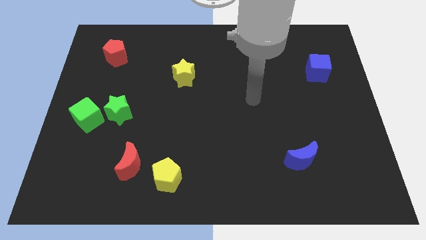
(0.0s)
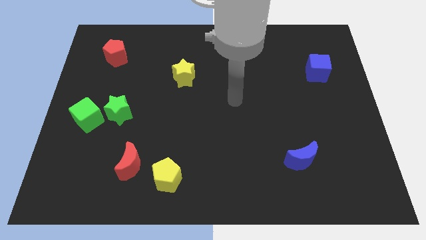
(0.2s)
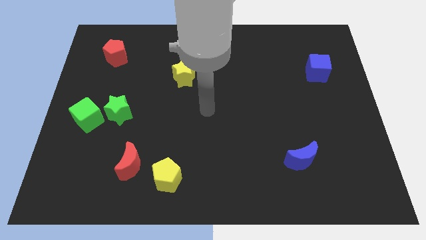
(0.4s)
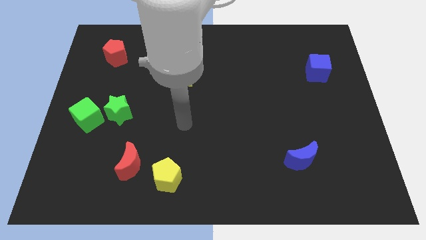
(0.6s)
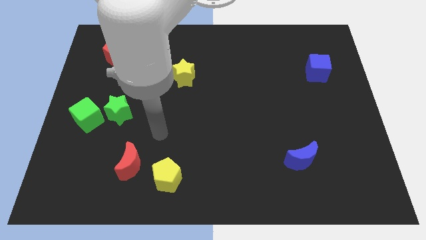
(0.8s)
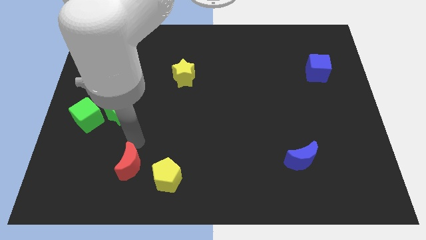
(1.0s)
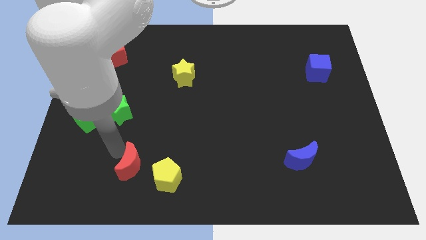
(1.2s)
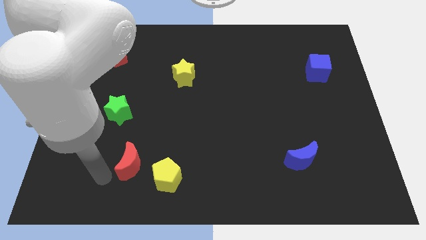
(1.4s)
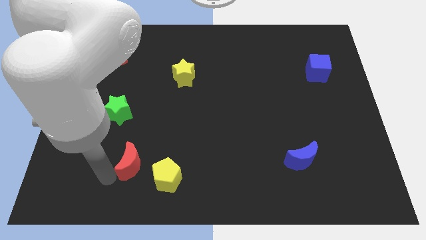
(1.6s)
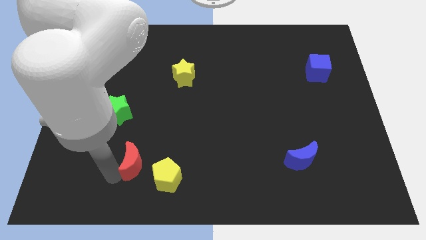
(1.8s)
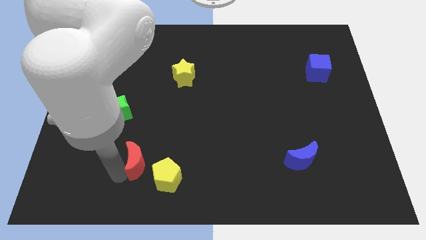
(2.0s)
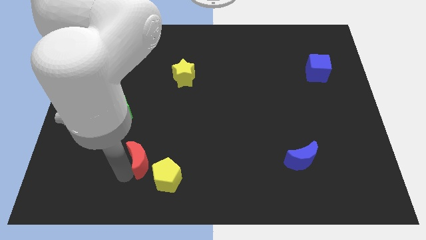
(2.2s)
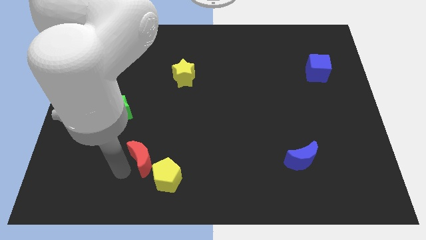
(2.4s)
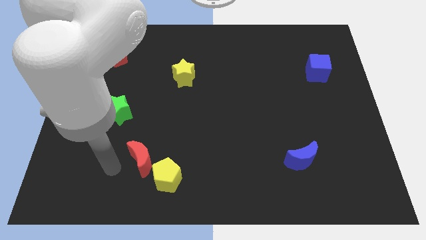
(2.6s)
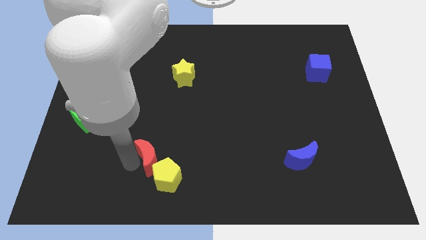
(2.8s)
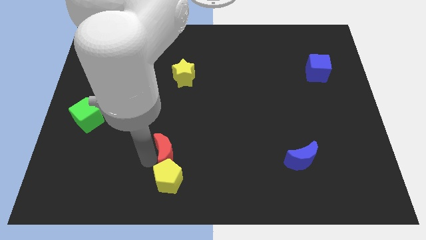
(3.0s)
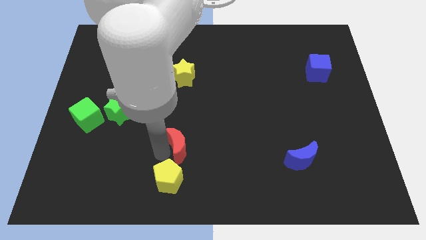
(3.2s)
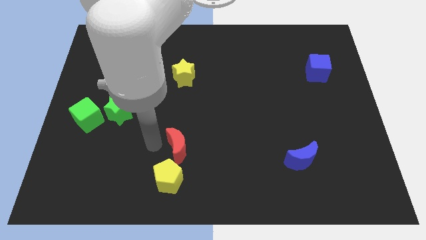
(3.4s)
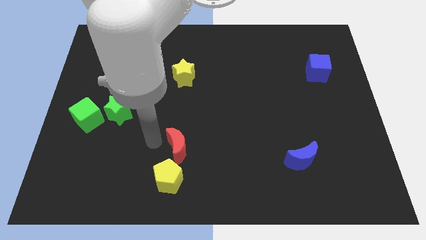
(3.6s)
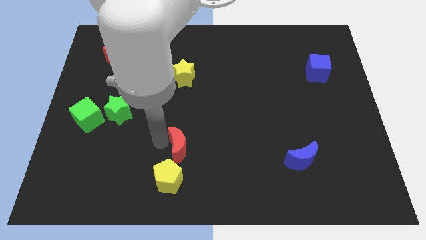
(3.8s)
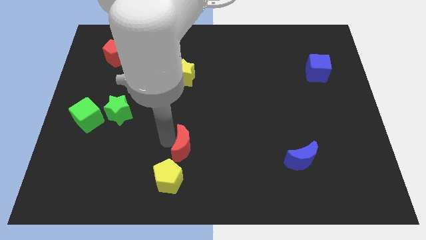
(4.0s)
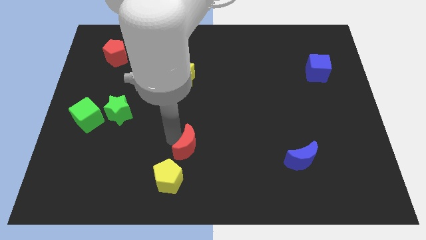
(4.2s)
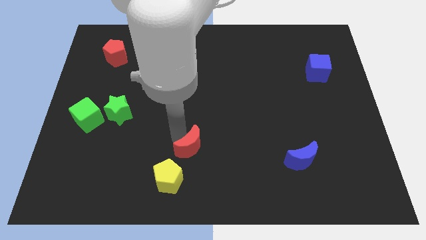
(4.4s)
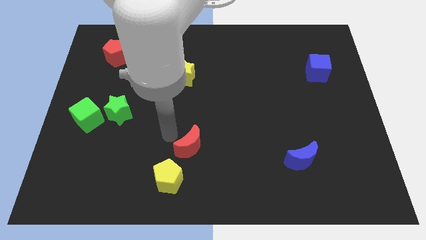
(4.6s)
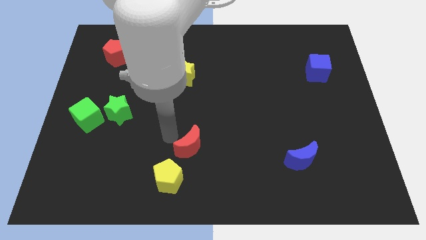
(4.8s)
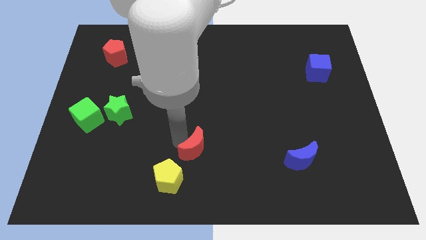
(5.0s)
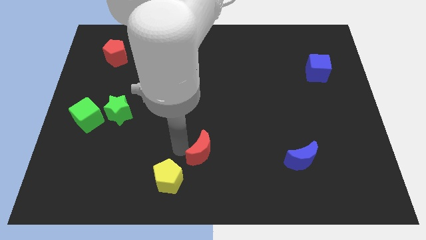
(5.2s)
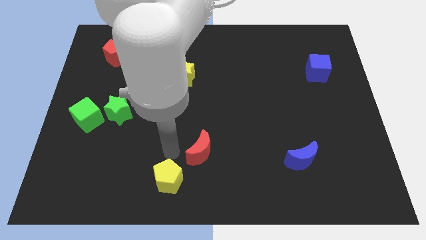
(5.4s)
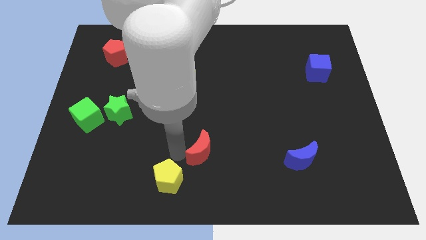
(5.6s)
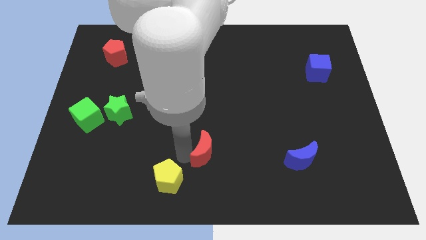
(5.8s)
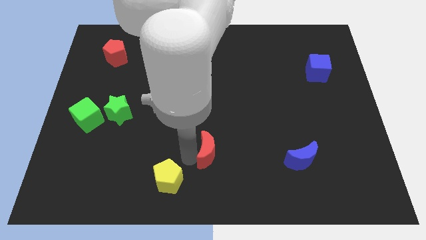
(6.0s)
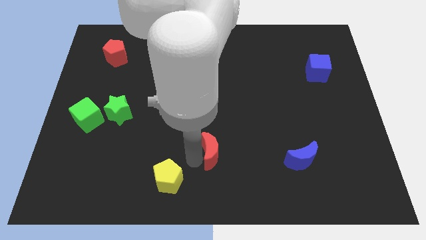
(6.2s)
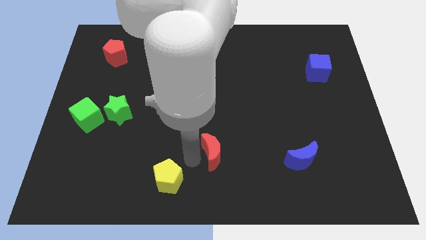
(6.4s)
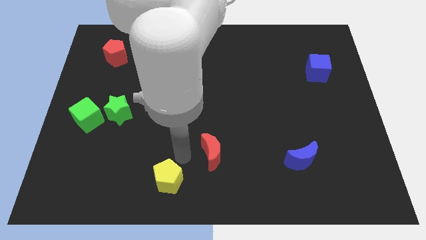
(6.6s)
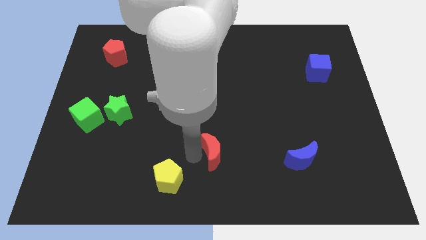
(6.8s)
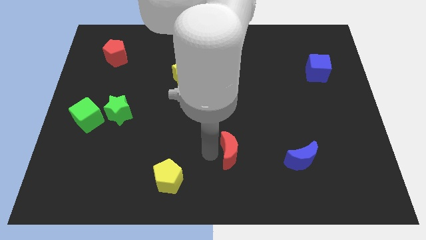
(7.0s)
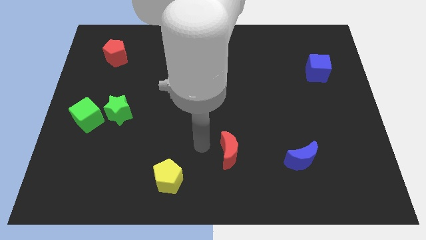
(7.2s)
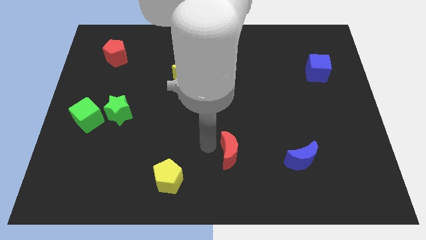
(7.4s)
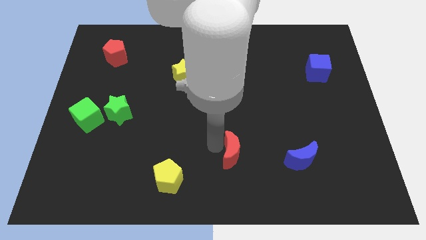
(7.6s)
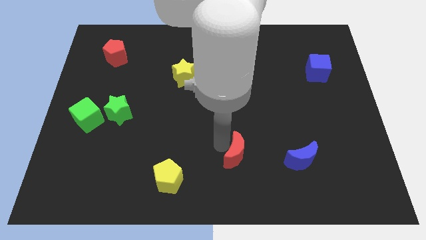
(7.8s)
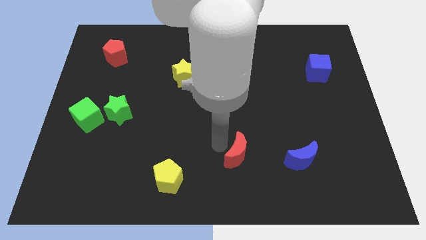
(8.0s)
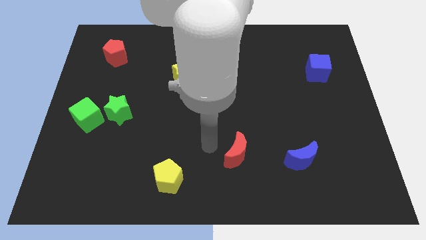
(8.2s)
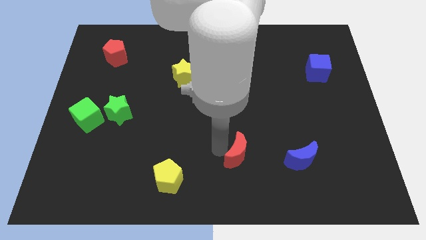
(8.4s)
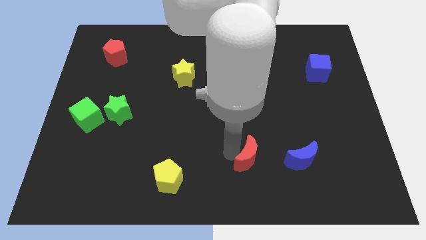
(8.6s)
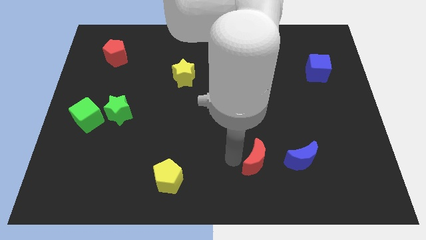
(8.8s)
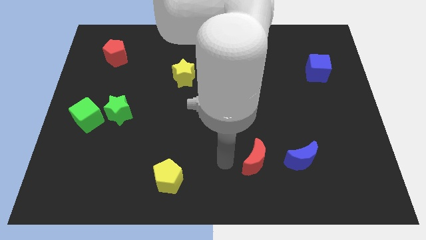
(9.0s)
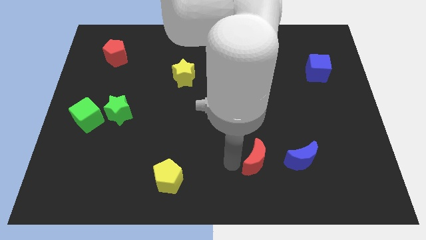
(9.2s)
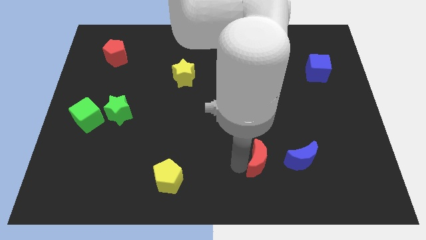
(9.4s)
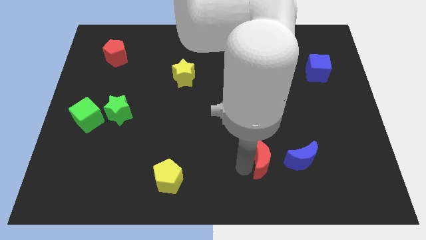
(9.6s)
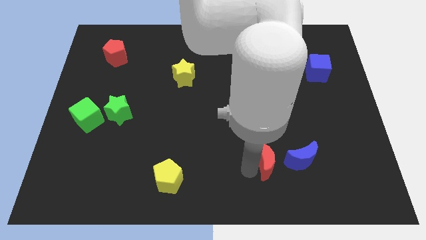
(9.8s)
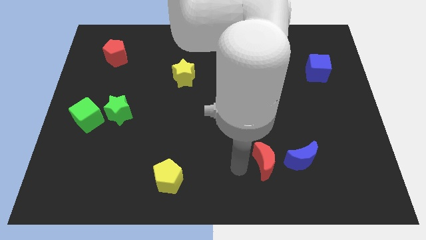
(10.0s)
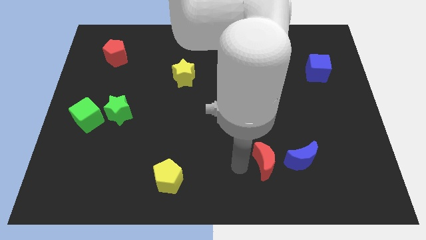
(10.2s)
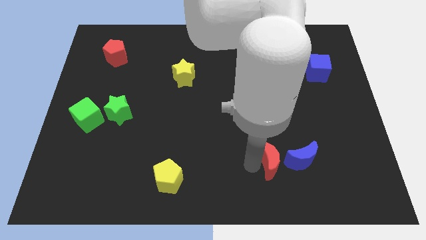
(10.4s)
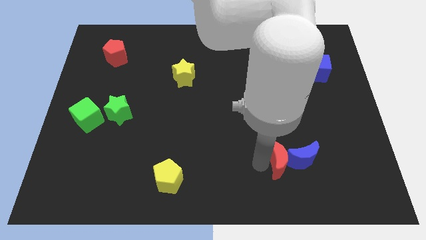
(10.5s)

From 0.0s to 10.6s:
slide the red moon towards the blue moon
